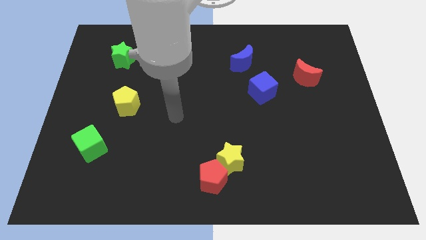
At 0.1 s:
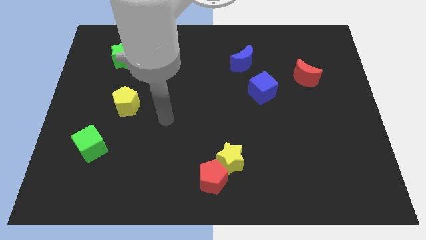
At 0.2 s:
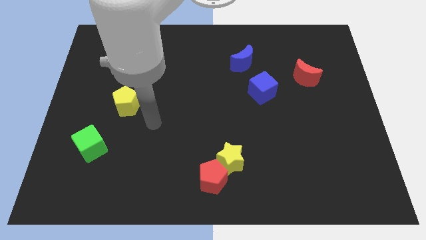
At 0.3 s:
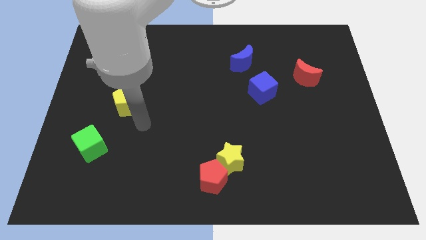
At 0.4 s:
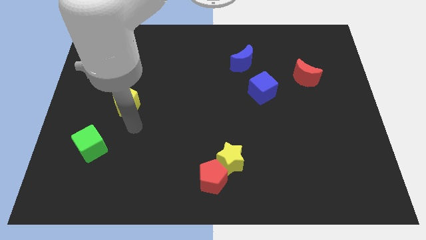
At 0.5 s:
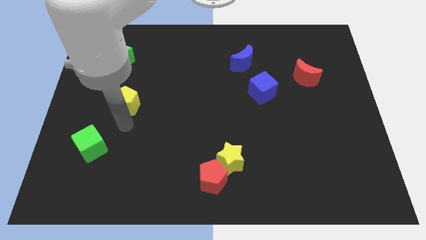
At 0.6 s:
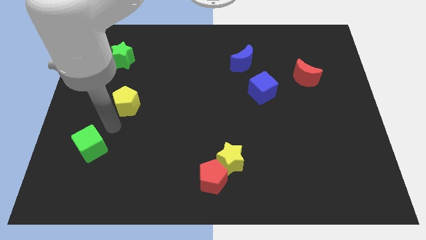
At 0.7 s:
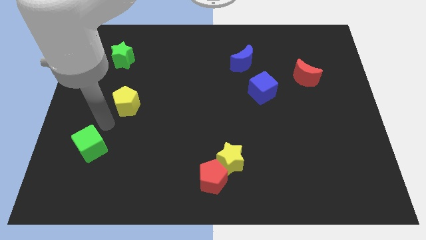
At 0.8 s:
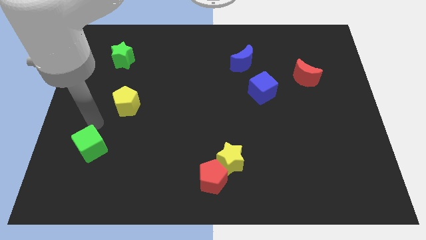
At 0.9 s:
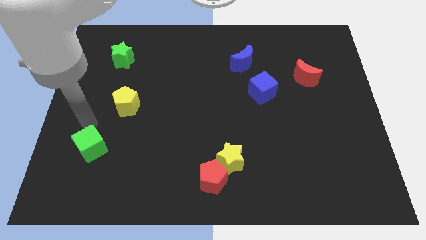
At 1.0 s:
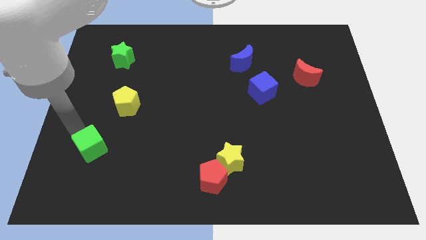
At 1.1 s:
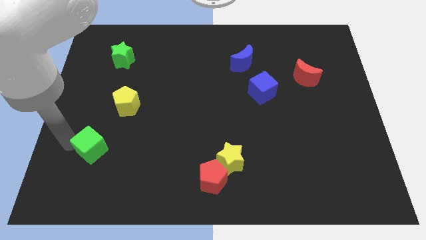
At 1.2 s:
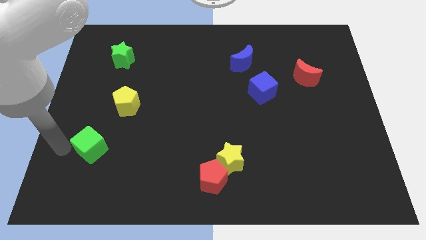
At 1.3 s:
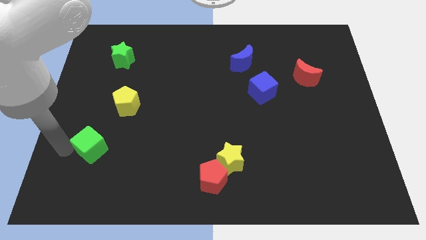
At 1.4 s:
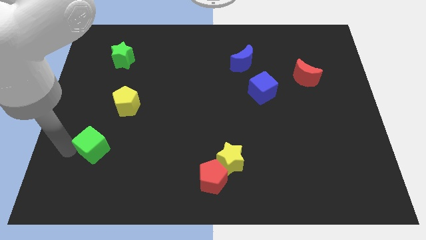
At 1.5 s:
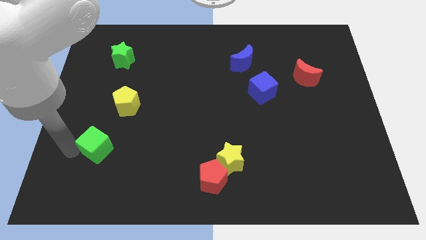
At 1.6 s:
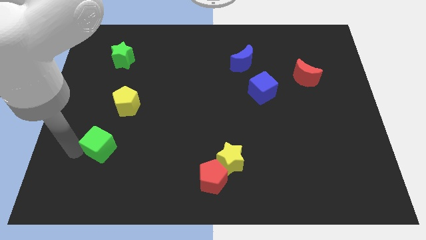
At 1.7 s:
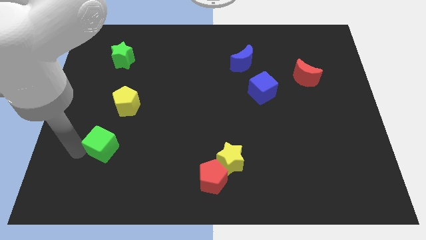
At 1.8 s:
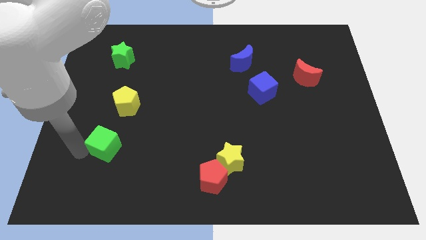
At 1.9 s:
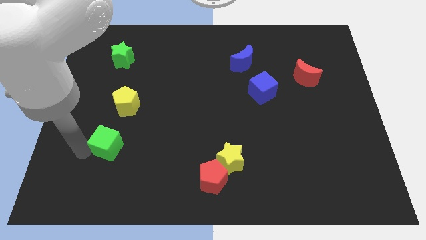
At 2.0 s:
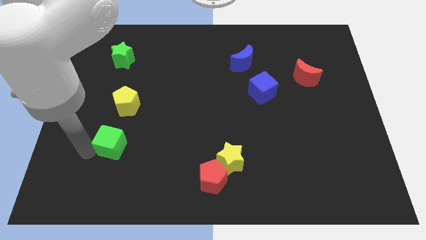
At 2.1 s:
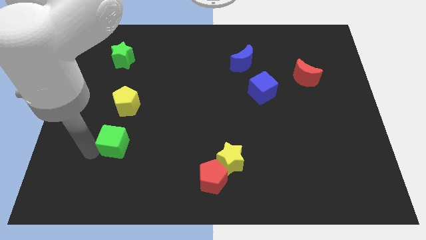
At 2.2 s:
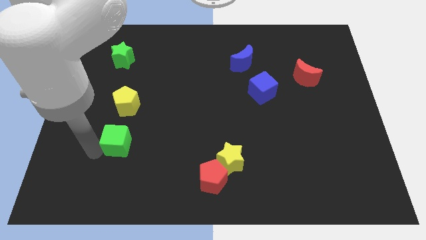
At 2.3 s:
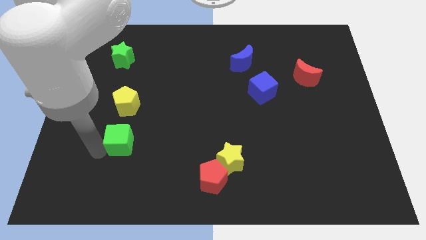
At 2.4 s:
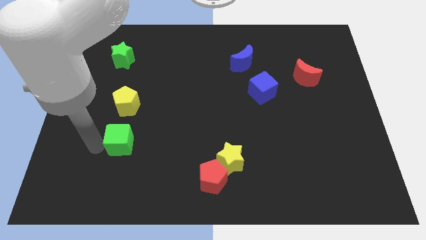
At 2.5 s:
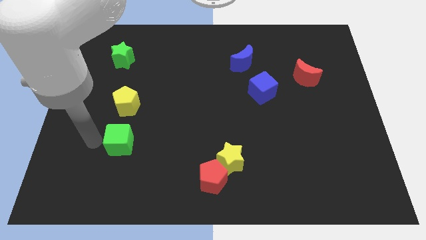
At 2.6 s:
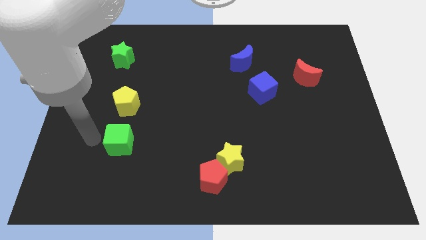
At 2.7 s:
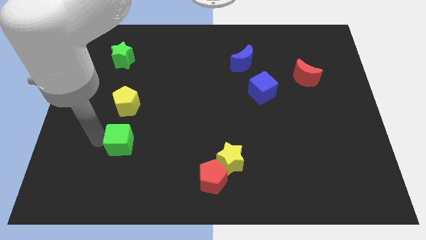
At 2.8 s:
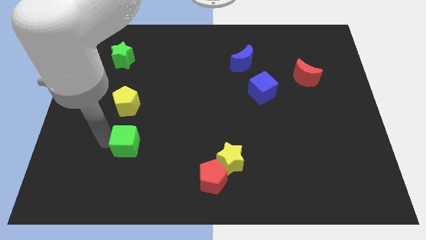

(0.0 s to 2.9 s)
move the green cube slightly right

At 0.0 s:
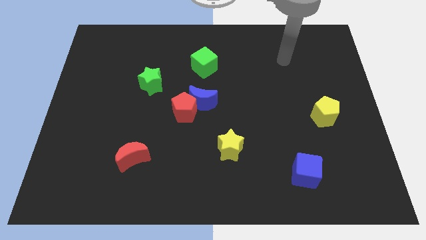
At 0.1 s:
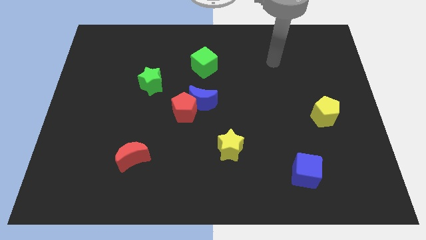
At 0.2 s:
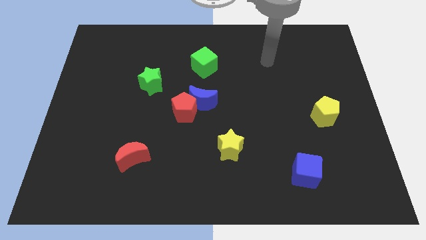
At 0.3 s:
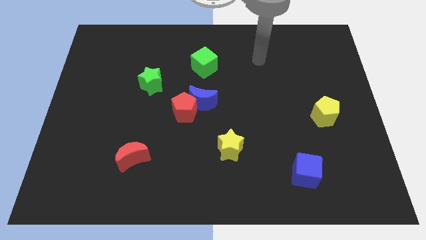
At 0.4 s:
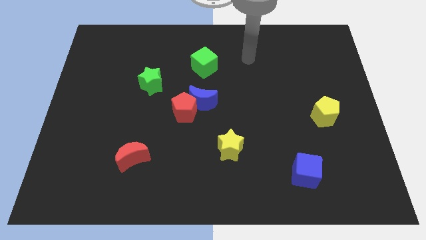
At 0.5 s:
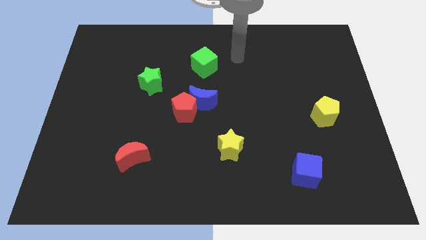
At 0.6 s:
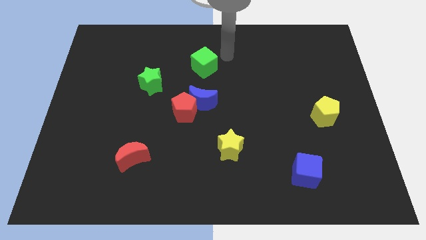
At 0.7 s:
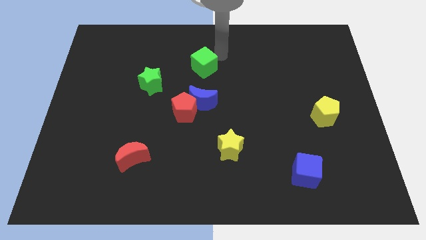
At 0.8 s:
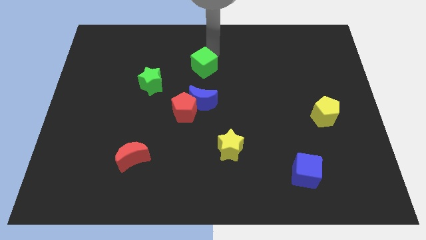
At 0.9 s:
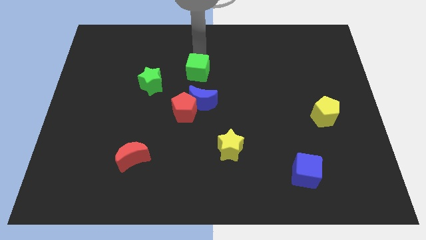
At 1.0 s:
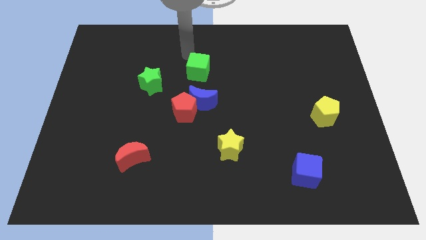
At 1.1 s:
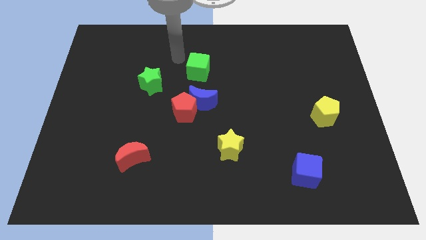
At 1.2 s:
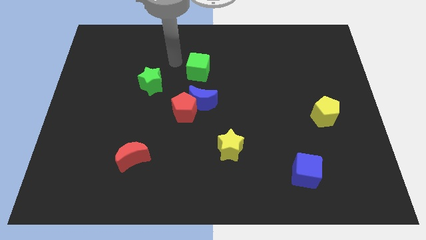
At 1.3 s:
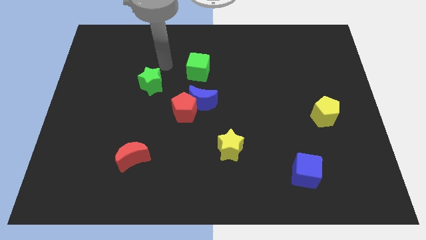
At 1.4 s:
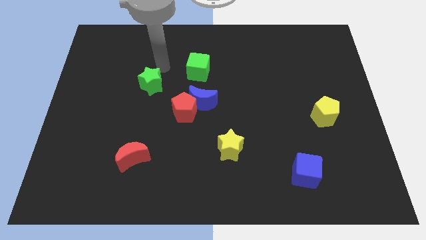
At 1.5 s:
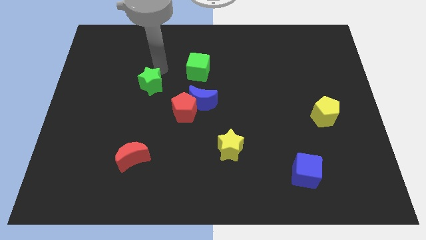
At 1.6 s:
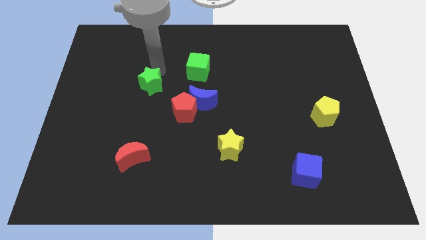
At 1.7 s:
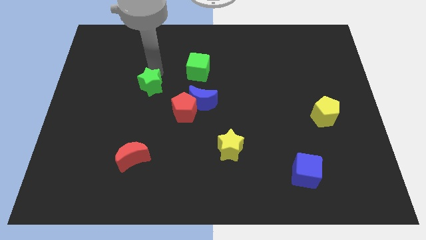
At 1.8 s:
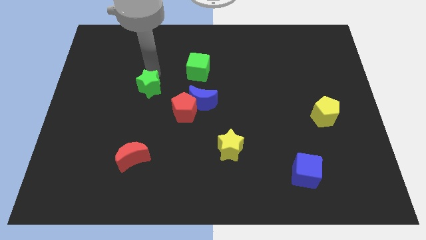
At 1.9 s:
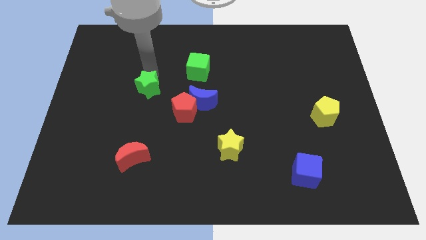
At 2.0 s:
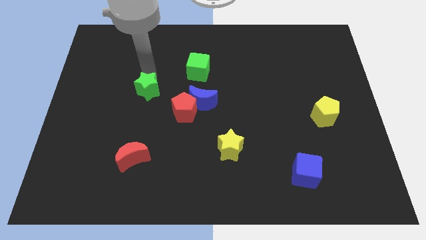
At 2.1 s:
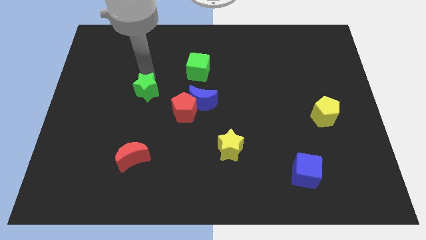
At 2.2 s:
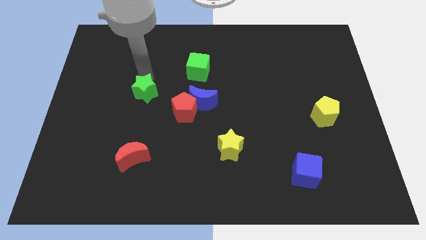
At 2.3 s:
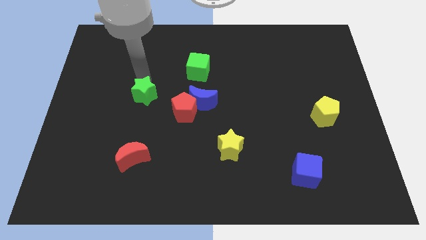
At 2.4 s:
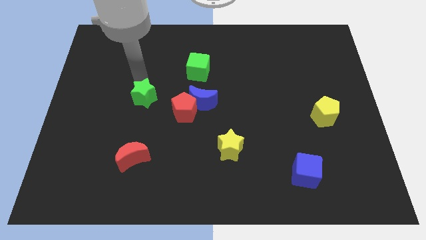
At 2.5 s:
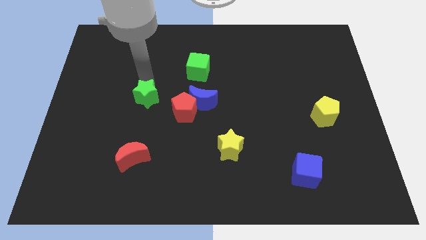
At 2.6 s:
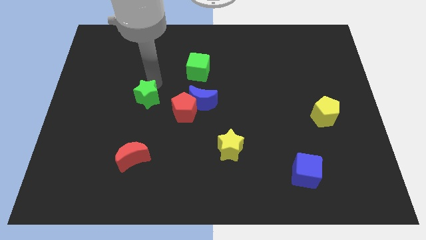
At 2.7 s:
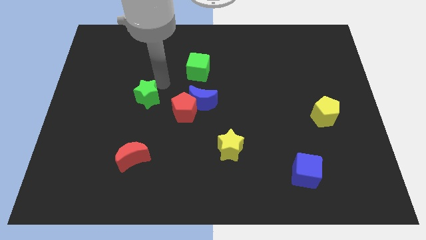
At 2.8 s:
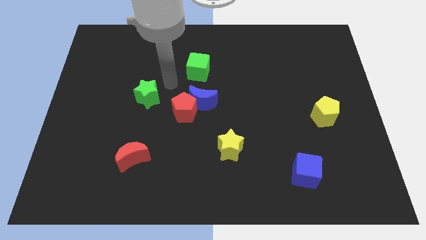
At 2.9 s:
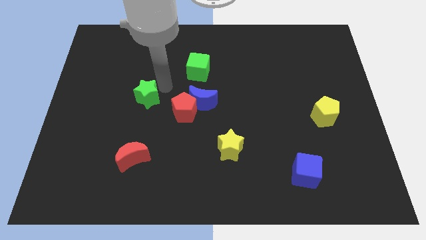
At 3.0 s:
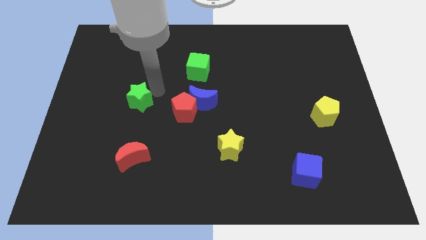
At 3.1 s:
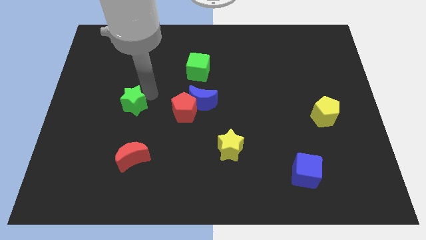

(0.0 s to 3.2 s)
slide the green star somewhat down and then left

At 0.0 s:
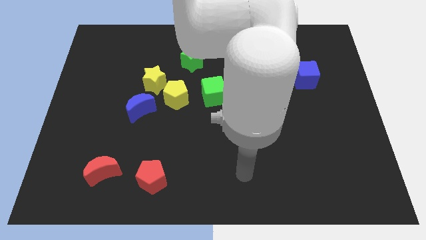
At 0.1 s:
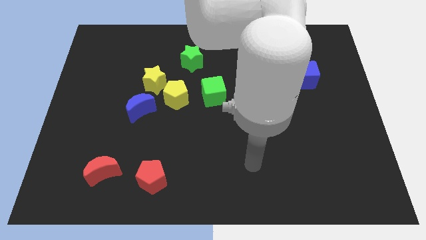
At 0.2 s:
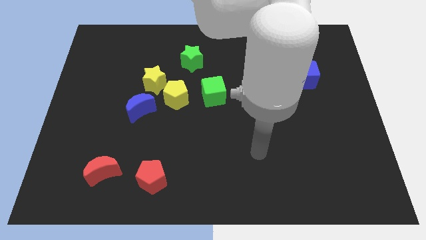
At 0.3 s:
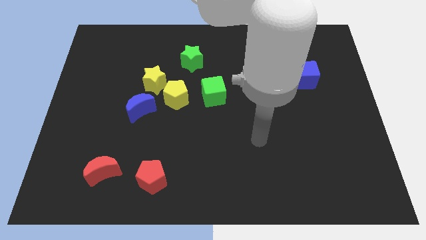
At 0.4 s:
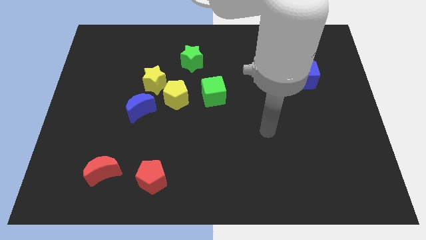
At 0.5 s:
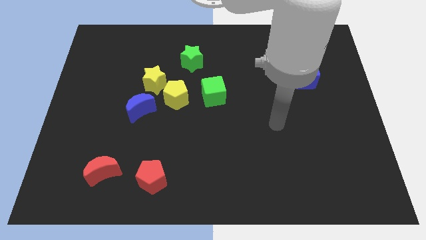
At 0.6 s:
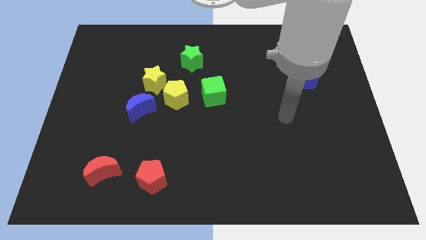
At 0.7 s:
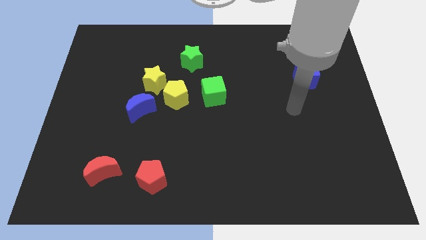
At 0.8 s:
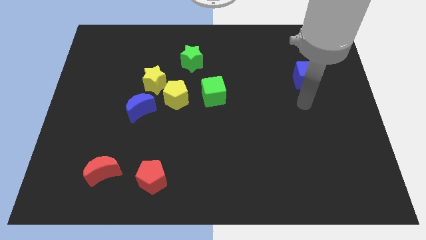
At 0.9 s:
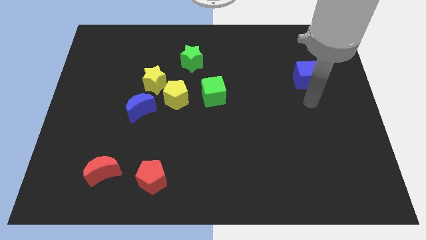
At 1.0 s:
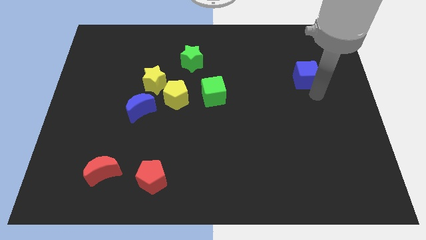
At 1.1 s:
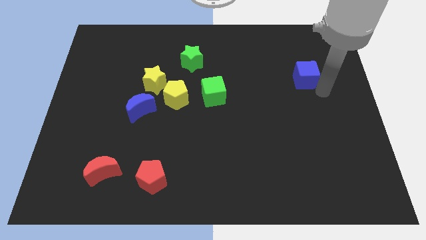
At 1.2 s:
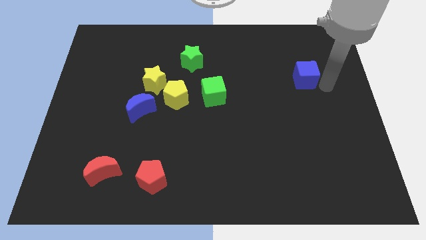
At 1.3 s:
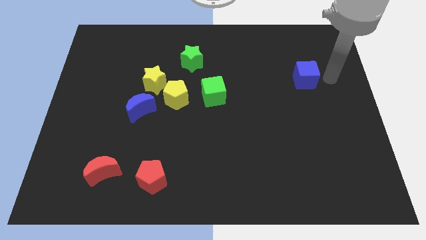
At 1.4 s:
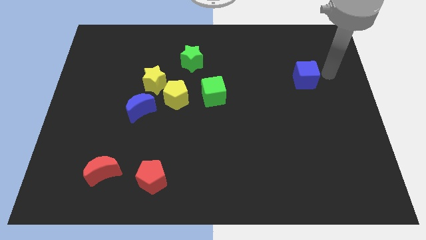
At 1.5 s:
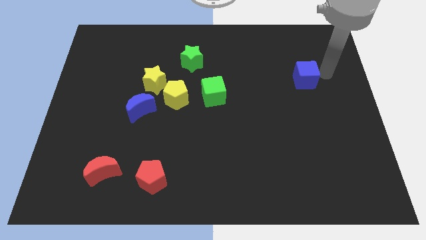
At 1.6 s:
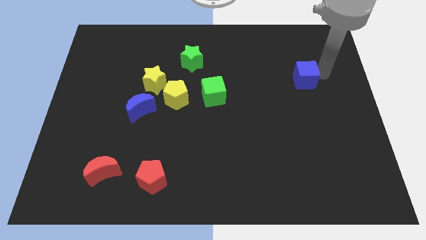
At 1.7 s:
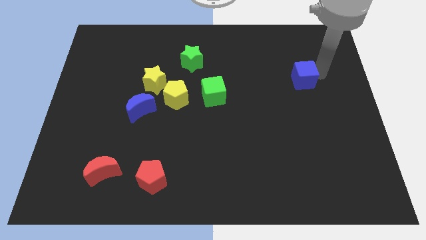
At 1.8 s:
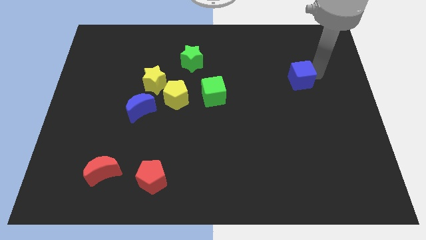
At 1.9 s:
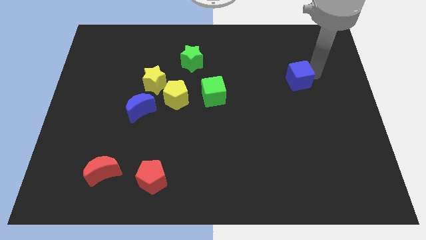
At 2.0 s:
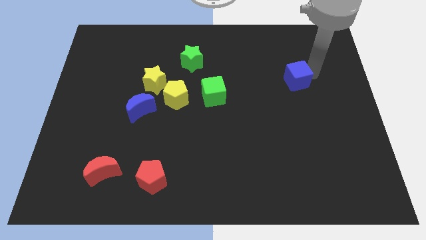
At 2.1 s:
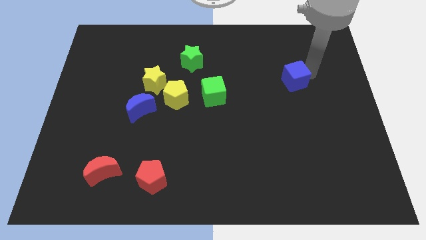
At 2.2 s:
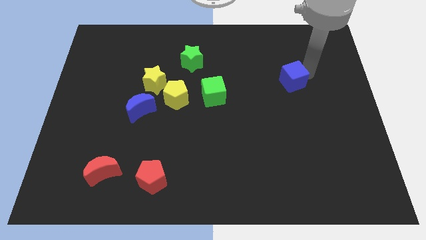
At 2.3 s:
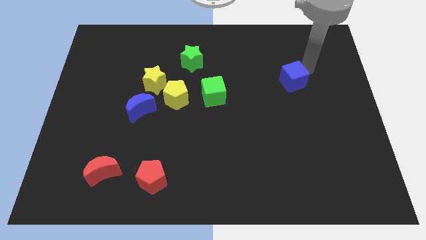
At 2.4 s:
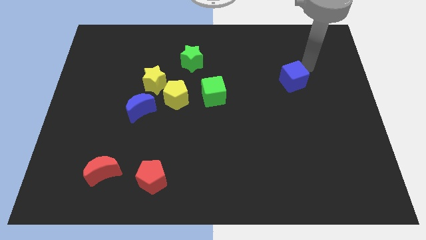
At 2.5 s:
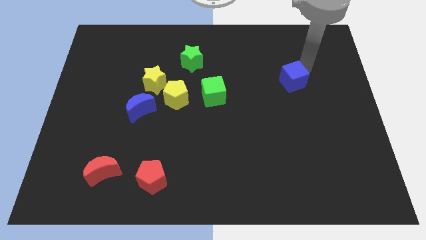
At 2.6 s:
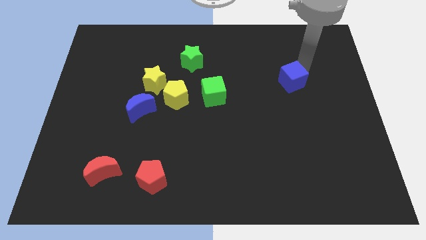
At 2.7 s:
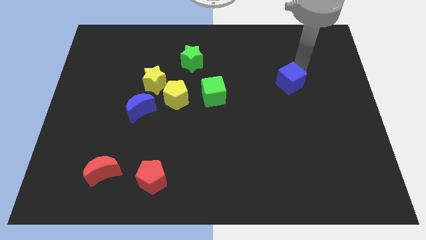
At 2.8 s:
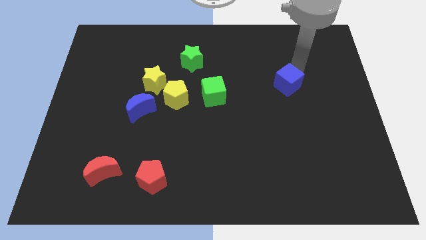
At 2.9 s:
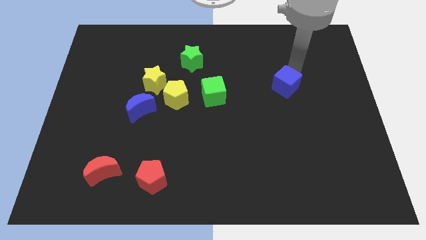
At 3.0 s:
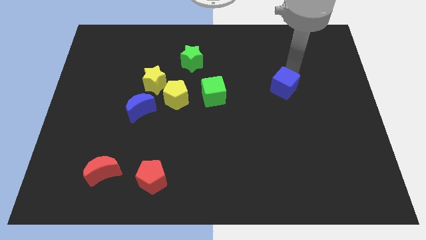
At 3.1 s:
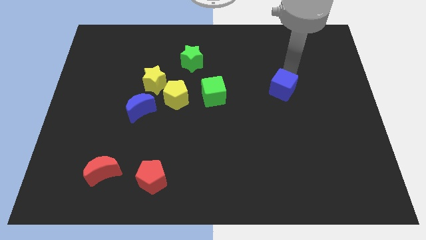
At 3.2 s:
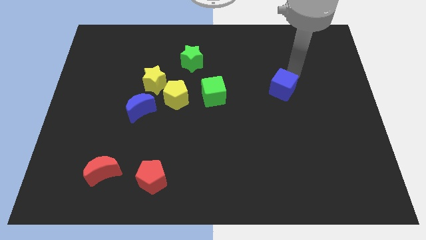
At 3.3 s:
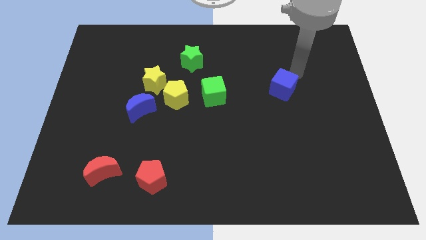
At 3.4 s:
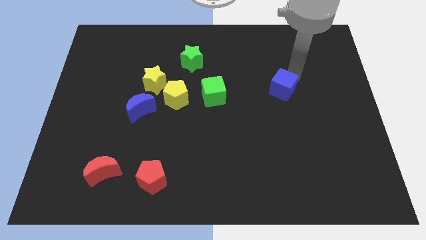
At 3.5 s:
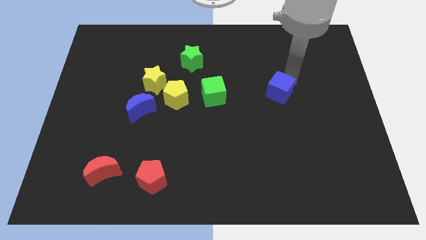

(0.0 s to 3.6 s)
push the blue cube slightly down and left
